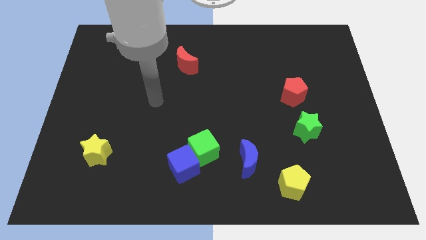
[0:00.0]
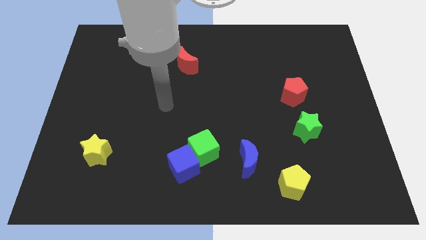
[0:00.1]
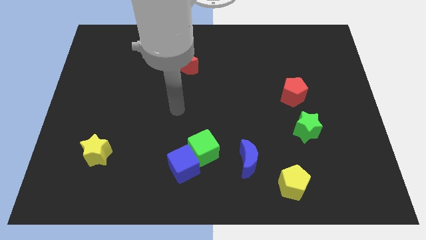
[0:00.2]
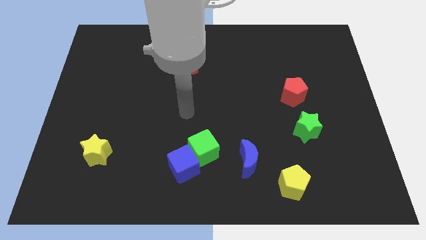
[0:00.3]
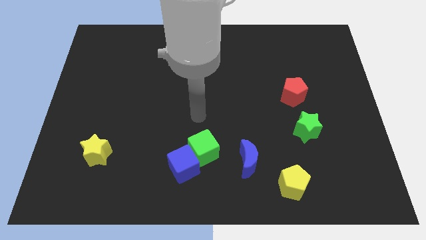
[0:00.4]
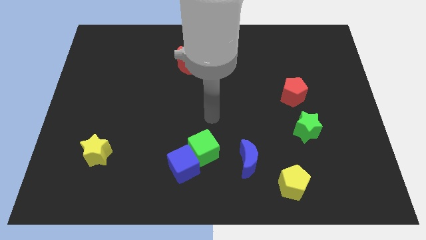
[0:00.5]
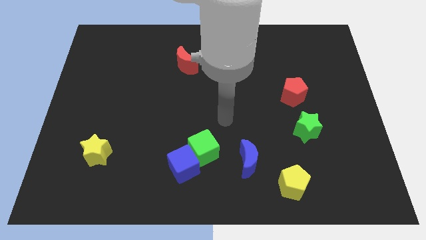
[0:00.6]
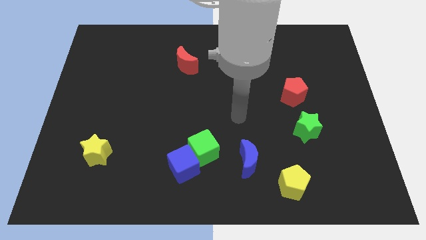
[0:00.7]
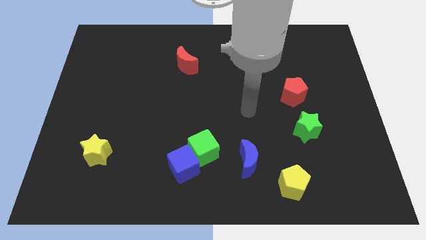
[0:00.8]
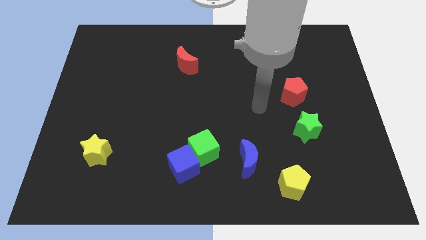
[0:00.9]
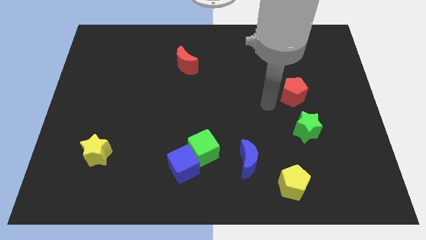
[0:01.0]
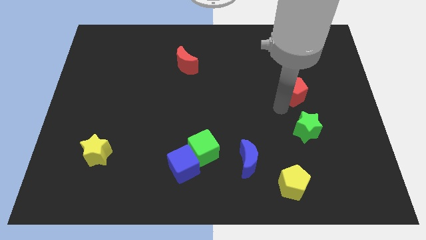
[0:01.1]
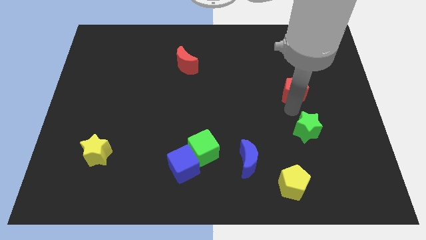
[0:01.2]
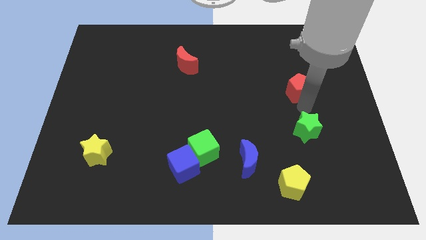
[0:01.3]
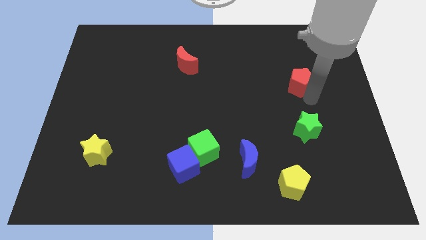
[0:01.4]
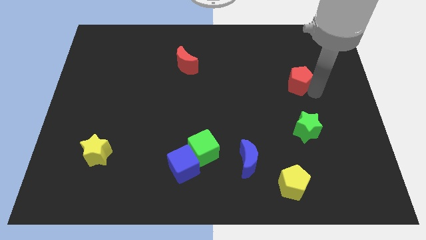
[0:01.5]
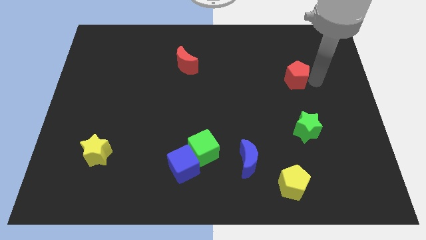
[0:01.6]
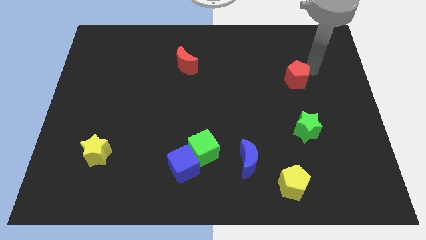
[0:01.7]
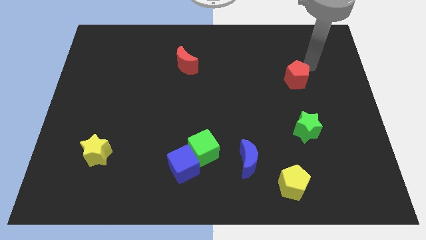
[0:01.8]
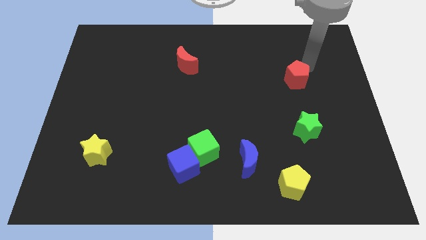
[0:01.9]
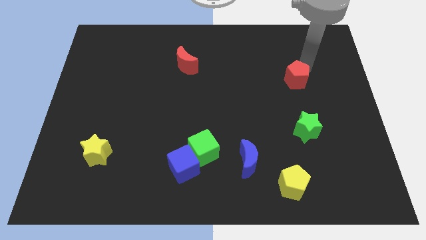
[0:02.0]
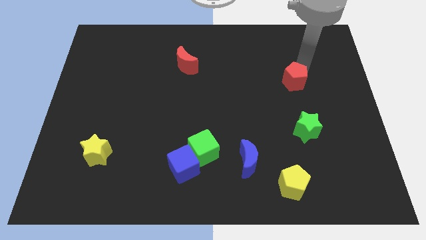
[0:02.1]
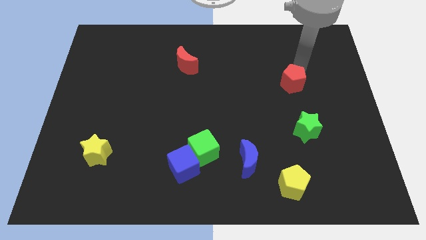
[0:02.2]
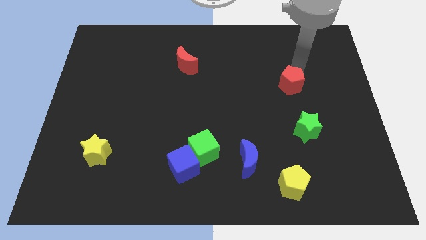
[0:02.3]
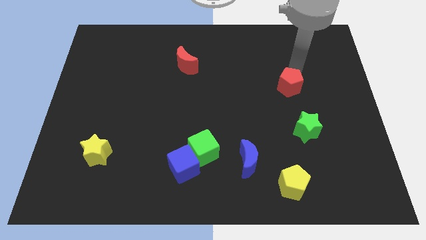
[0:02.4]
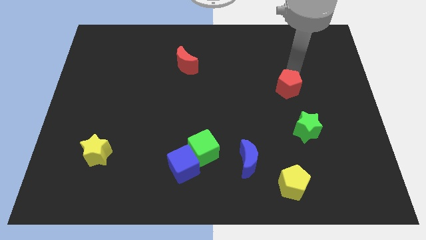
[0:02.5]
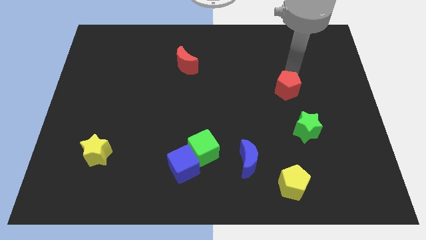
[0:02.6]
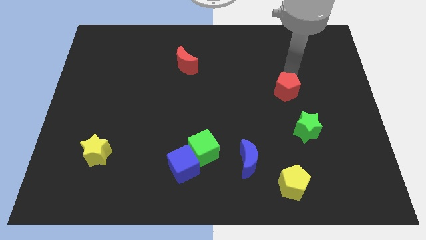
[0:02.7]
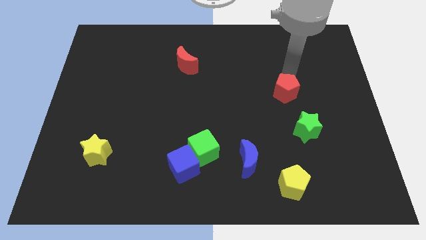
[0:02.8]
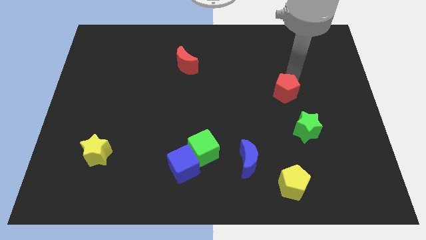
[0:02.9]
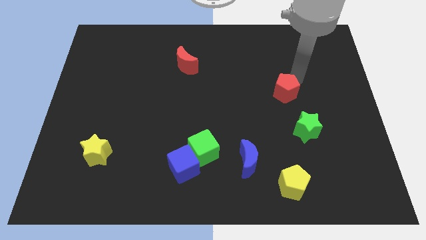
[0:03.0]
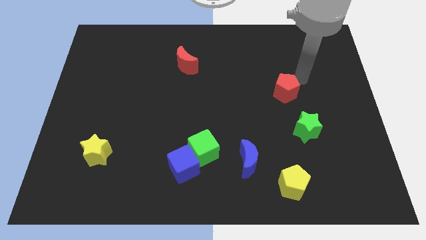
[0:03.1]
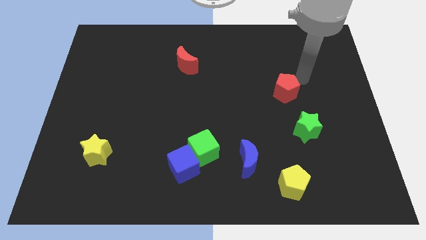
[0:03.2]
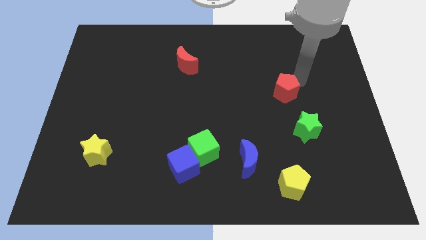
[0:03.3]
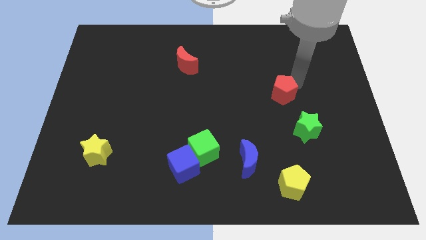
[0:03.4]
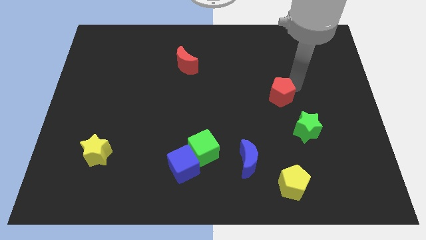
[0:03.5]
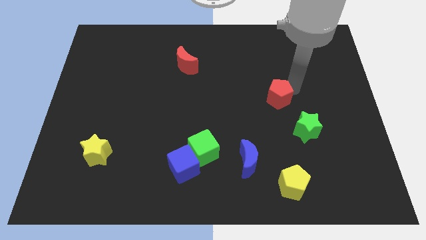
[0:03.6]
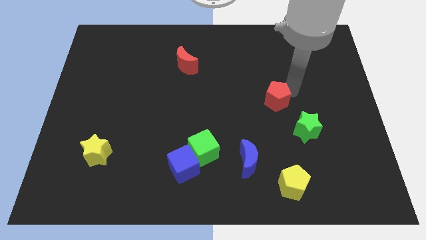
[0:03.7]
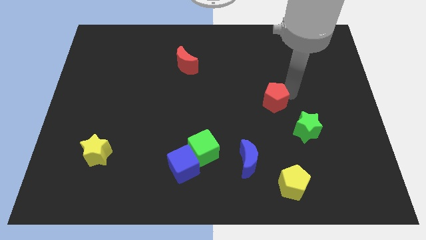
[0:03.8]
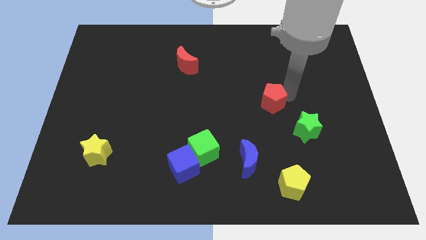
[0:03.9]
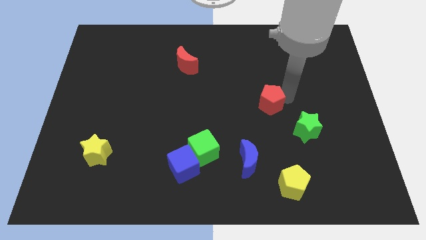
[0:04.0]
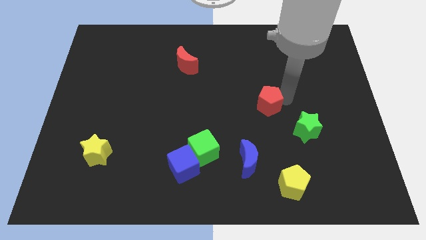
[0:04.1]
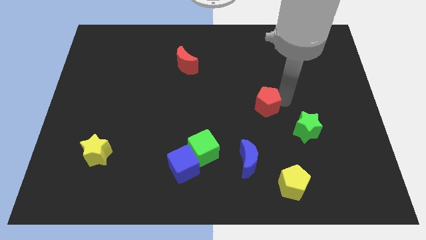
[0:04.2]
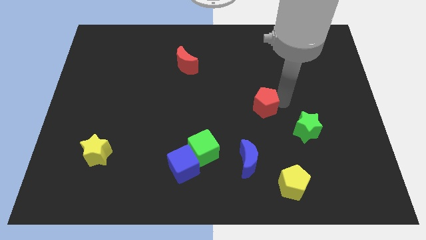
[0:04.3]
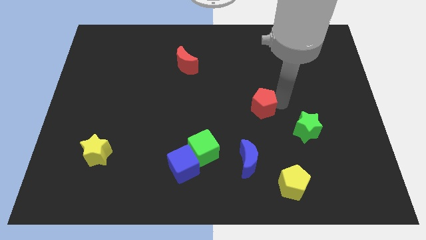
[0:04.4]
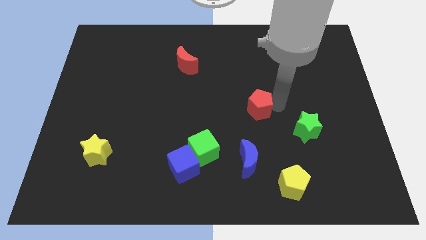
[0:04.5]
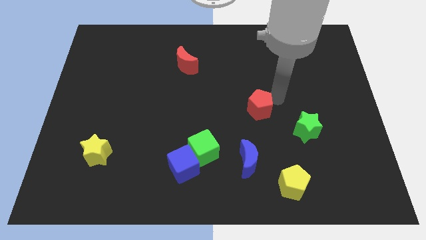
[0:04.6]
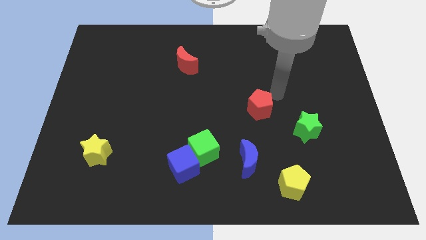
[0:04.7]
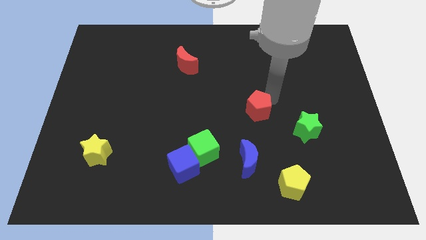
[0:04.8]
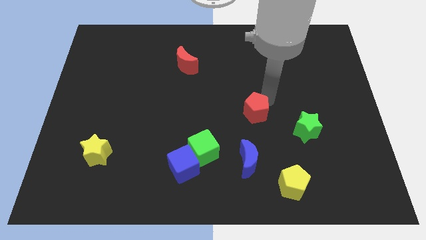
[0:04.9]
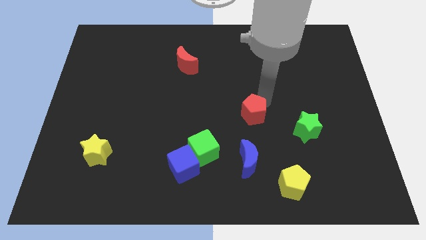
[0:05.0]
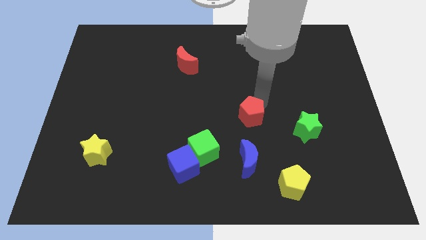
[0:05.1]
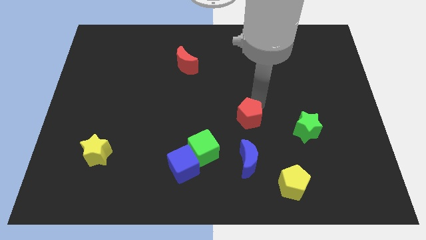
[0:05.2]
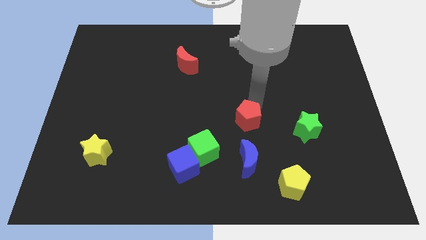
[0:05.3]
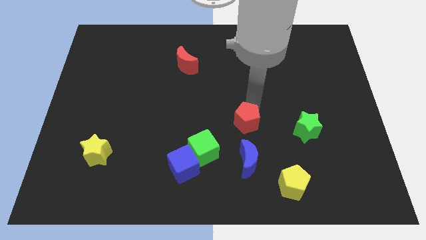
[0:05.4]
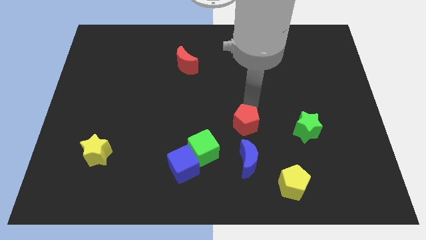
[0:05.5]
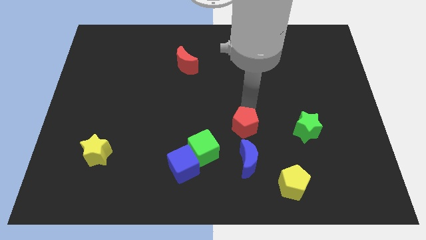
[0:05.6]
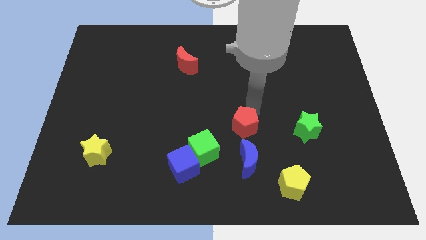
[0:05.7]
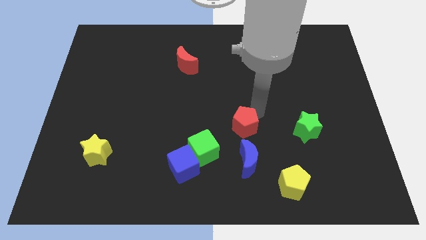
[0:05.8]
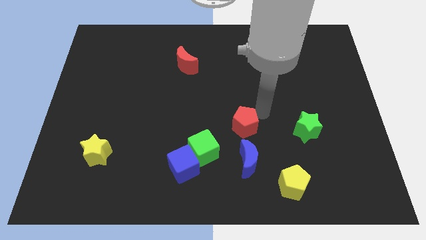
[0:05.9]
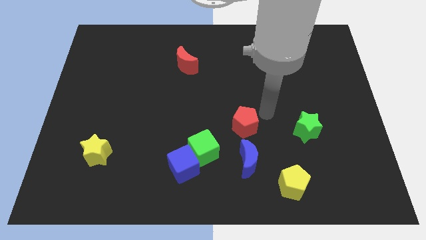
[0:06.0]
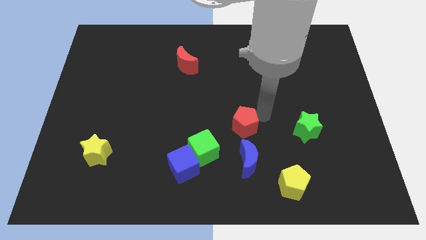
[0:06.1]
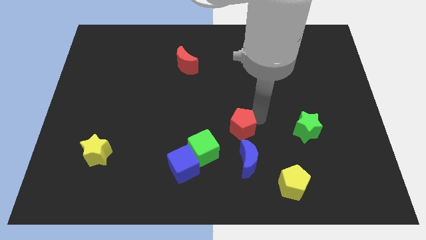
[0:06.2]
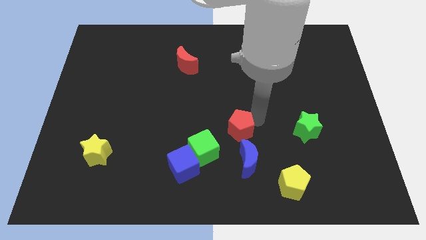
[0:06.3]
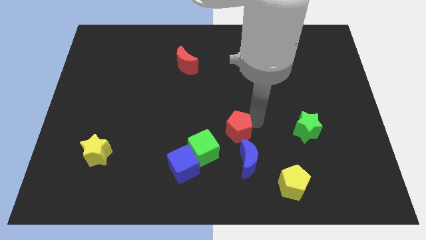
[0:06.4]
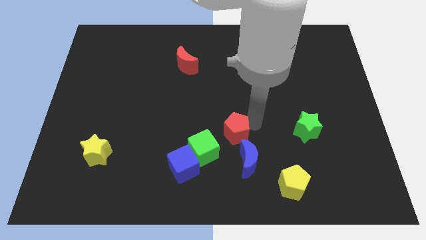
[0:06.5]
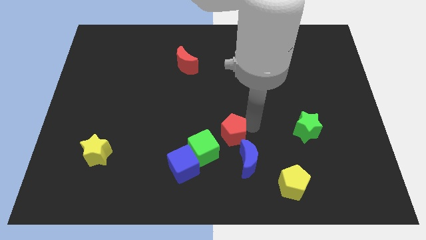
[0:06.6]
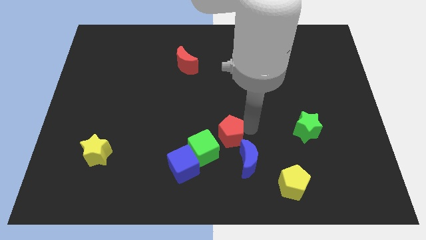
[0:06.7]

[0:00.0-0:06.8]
slide the red pentagon diagonally up and to the right of the blue cube
